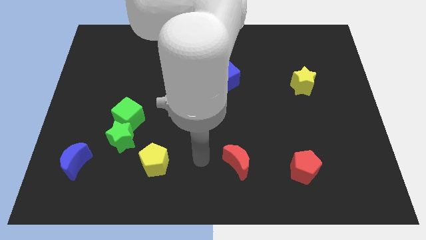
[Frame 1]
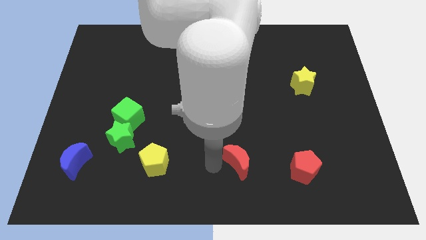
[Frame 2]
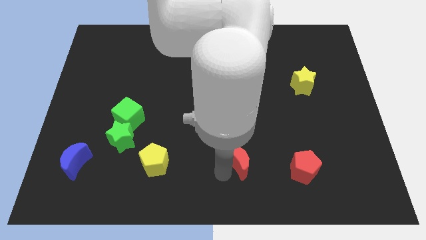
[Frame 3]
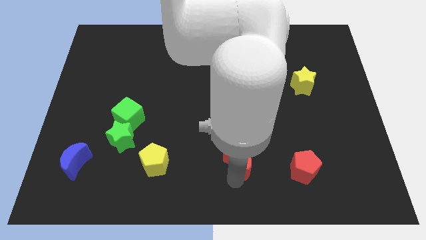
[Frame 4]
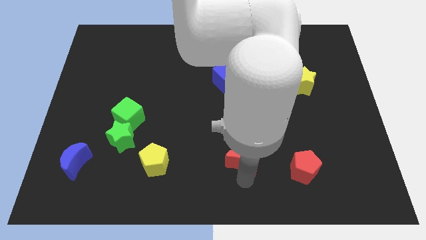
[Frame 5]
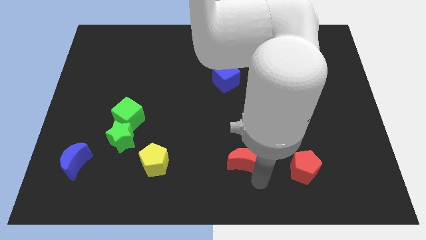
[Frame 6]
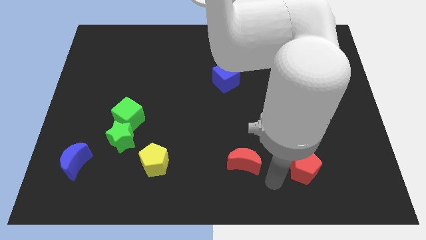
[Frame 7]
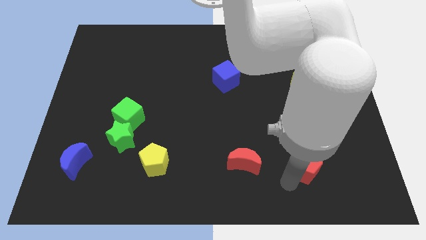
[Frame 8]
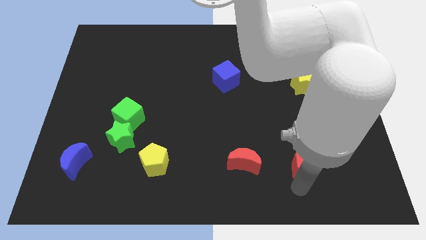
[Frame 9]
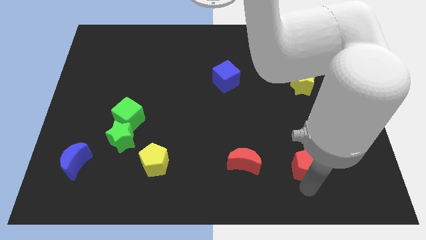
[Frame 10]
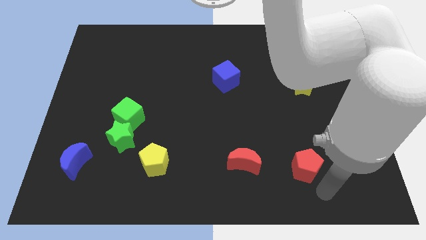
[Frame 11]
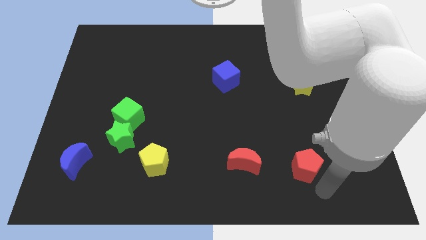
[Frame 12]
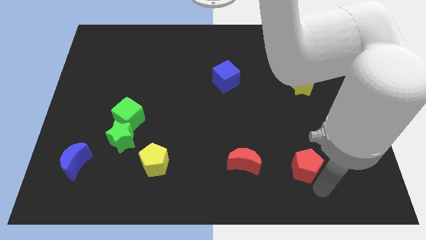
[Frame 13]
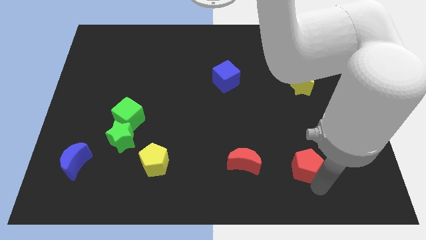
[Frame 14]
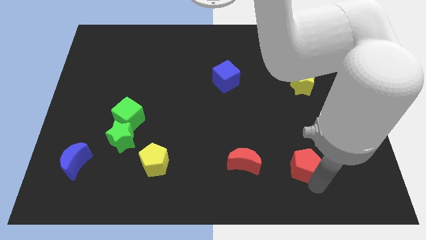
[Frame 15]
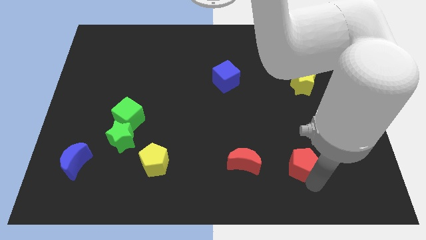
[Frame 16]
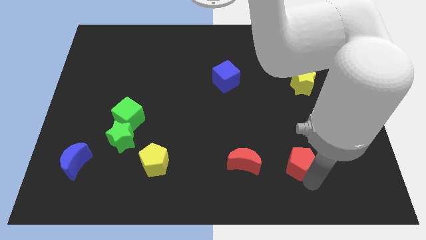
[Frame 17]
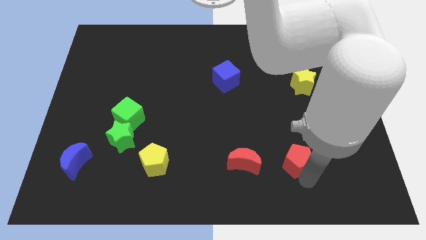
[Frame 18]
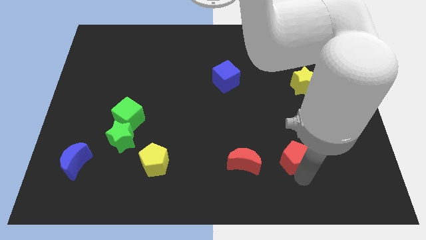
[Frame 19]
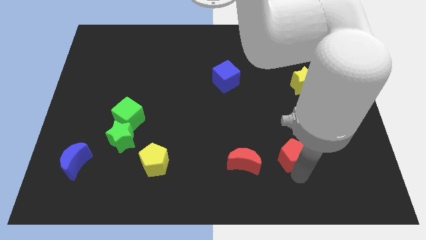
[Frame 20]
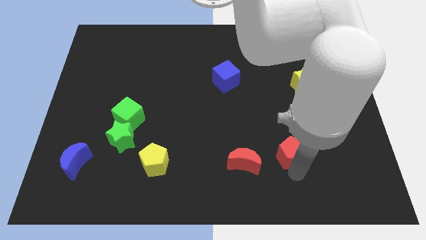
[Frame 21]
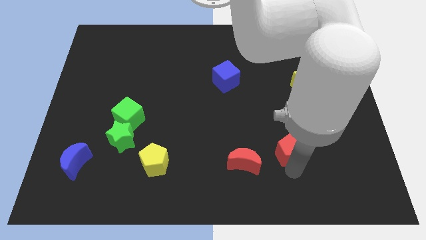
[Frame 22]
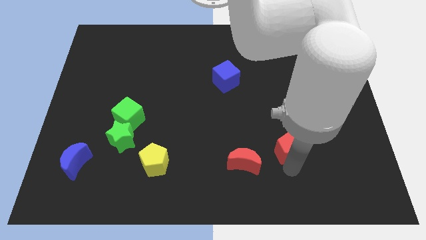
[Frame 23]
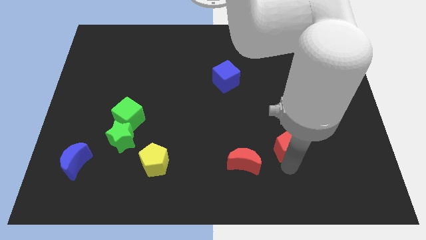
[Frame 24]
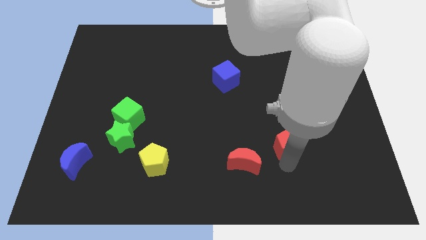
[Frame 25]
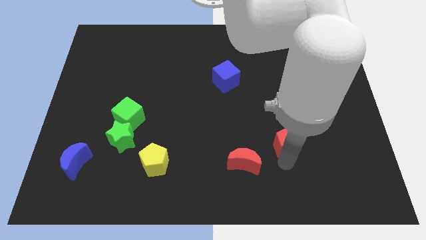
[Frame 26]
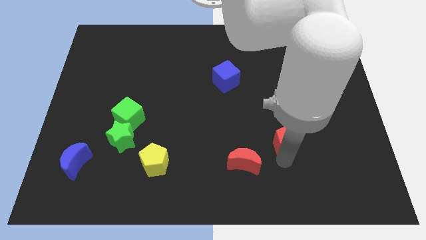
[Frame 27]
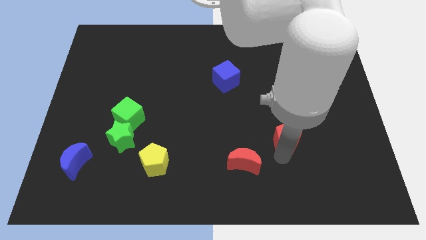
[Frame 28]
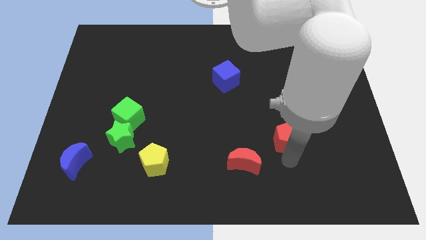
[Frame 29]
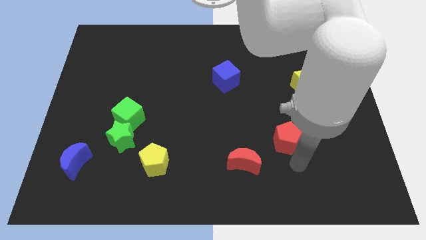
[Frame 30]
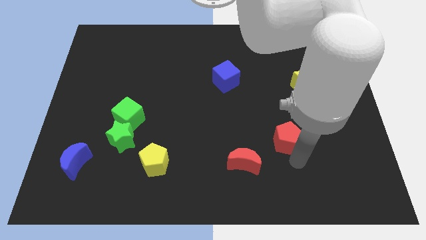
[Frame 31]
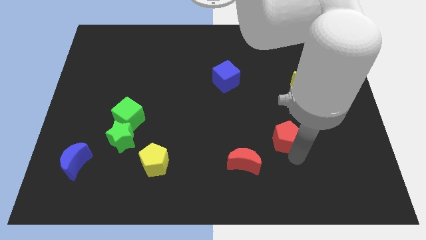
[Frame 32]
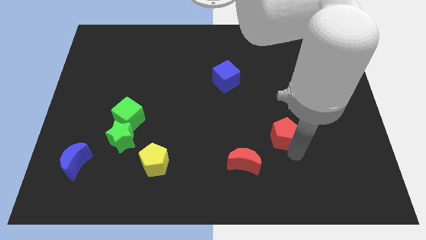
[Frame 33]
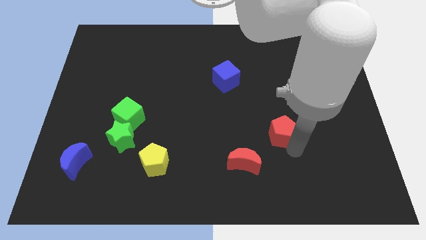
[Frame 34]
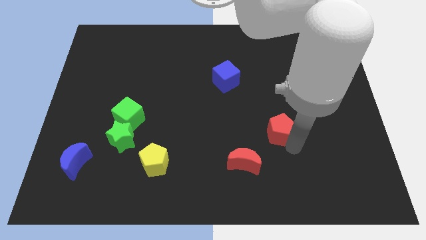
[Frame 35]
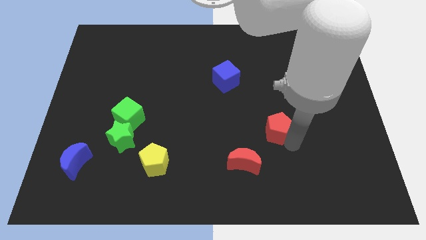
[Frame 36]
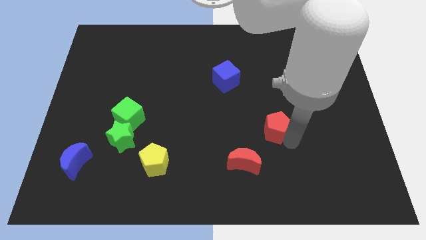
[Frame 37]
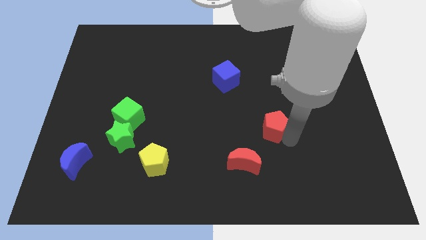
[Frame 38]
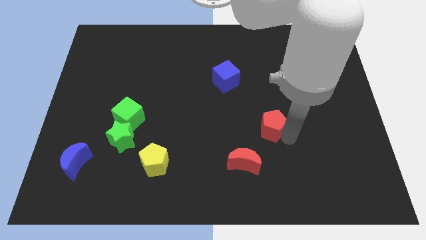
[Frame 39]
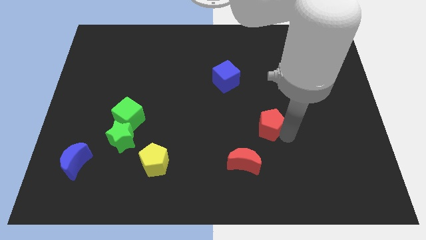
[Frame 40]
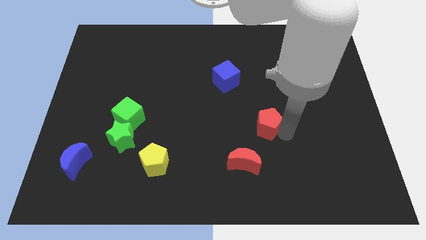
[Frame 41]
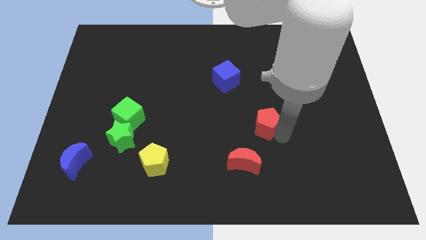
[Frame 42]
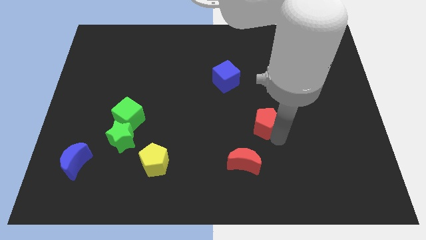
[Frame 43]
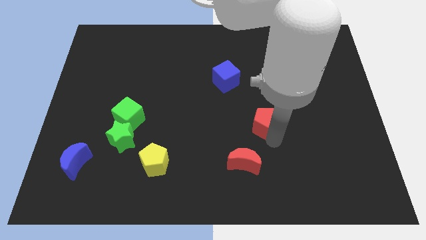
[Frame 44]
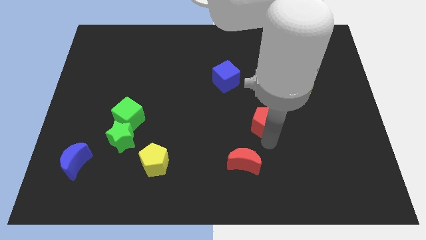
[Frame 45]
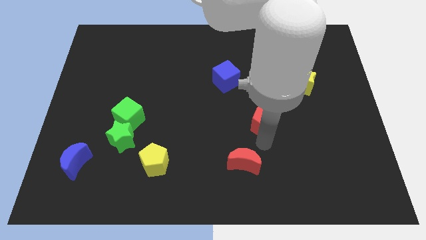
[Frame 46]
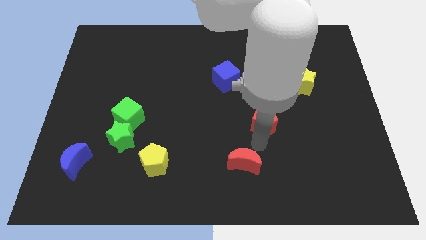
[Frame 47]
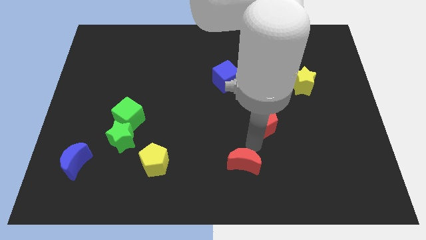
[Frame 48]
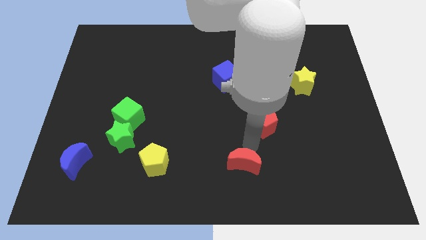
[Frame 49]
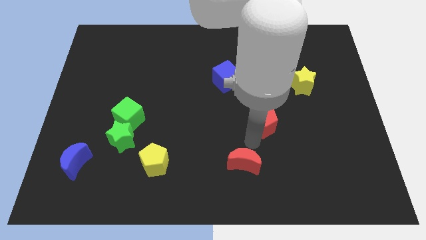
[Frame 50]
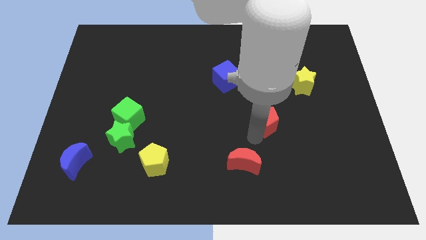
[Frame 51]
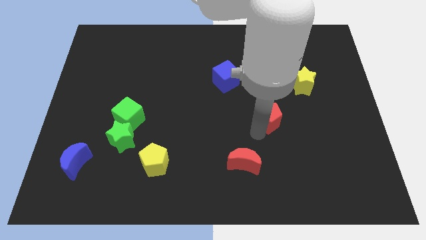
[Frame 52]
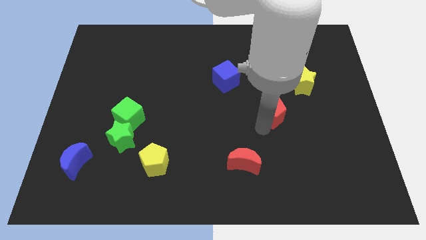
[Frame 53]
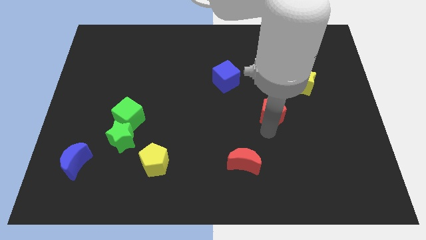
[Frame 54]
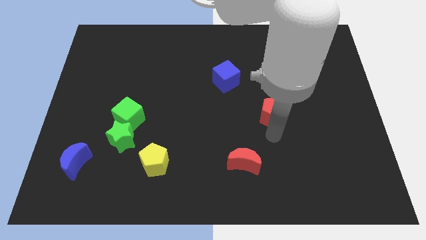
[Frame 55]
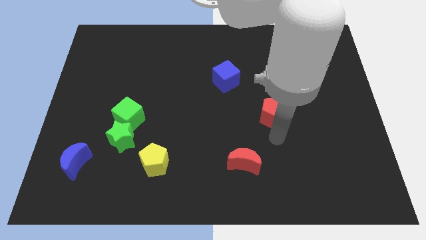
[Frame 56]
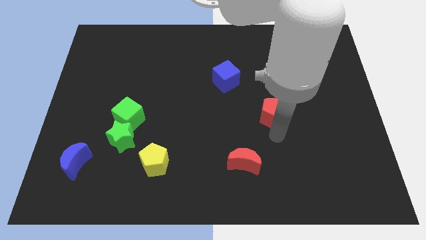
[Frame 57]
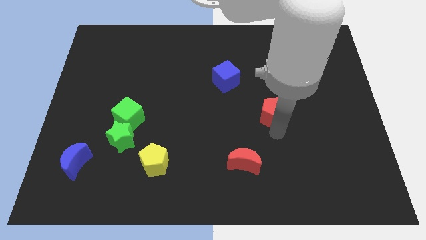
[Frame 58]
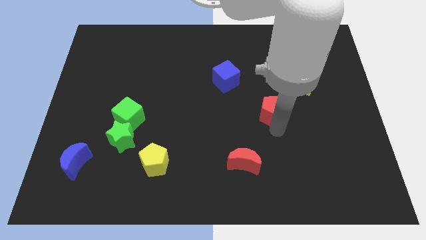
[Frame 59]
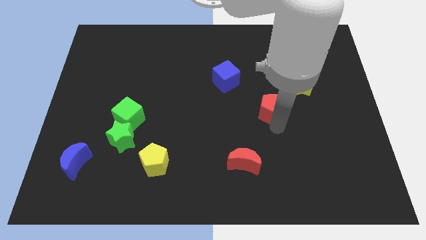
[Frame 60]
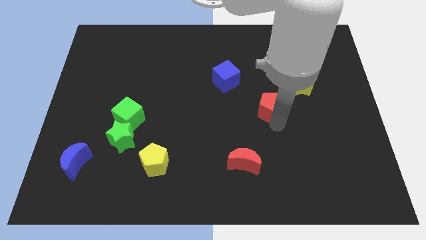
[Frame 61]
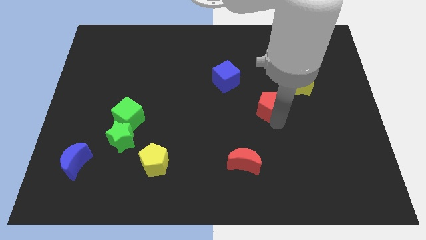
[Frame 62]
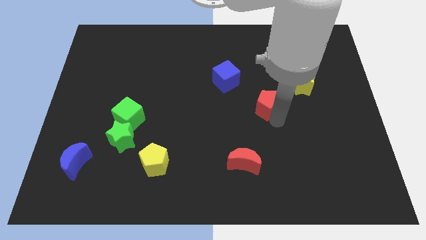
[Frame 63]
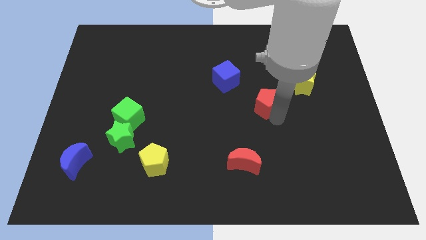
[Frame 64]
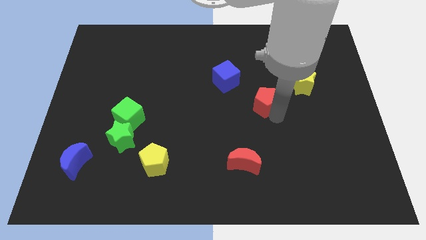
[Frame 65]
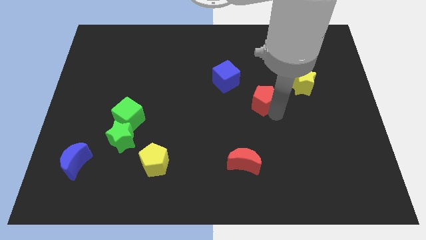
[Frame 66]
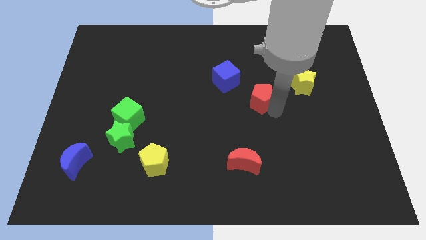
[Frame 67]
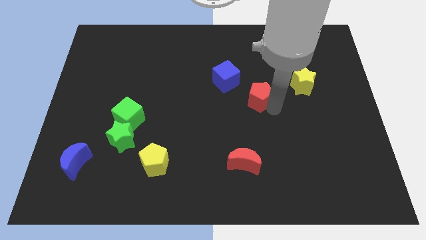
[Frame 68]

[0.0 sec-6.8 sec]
move the red pentagon left of the yellow star
